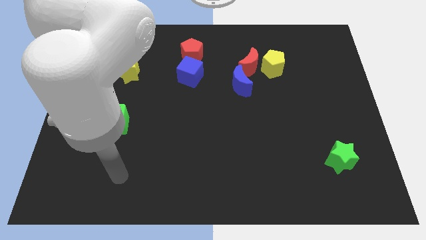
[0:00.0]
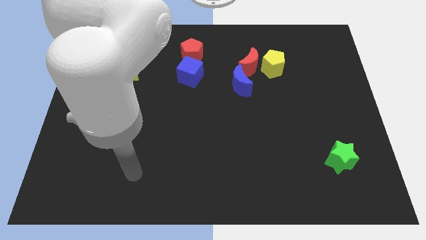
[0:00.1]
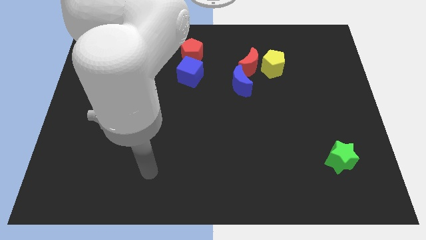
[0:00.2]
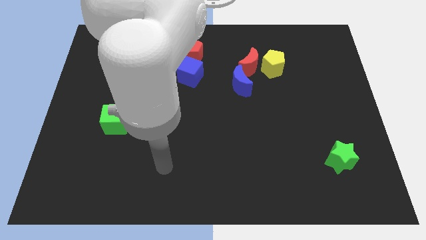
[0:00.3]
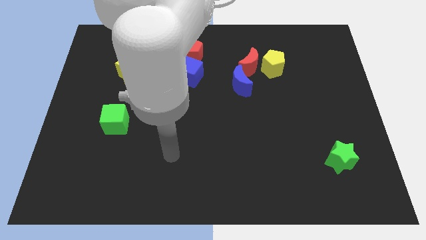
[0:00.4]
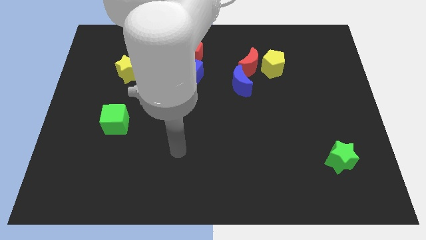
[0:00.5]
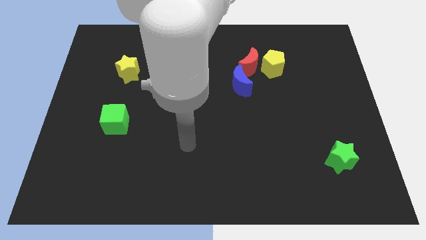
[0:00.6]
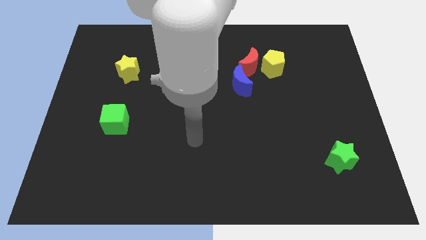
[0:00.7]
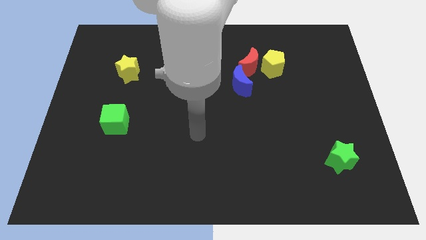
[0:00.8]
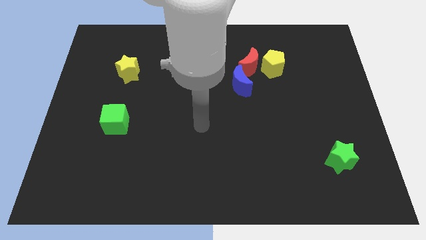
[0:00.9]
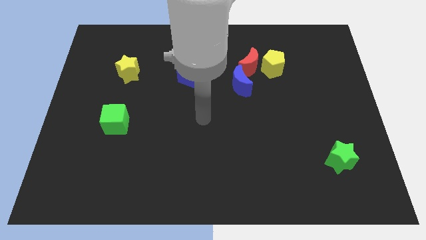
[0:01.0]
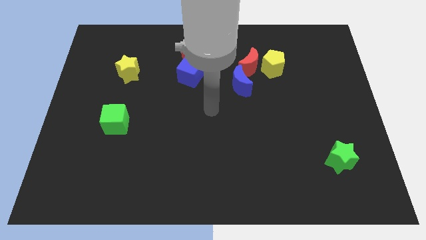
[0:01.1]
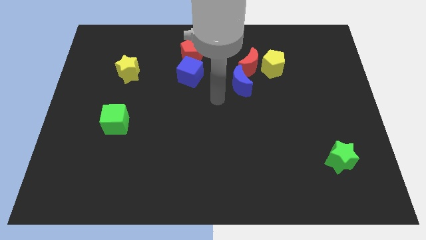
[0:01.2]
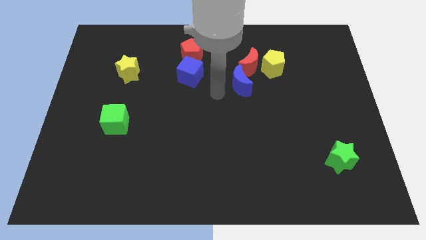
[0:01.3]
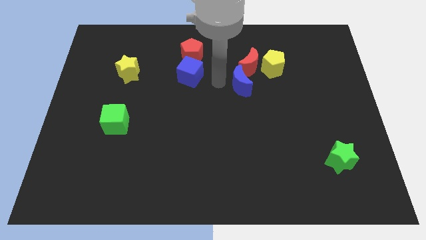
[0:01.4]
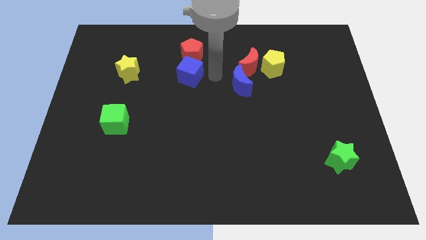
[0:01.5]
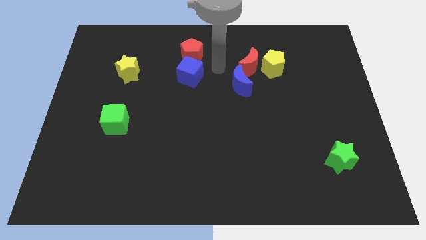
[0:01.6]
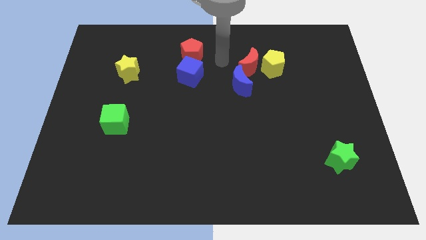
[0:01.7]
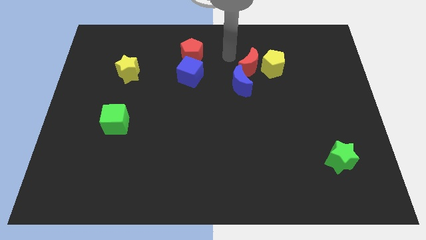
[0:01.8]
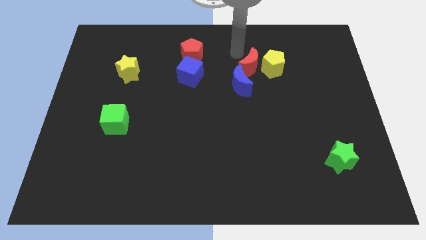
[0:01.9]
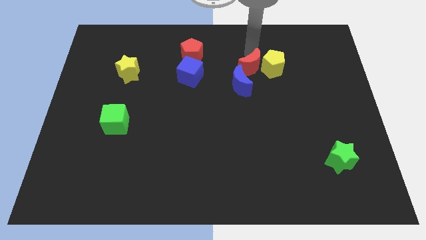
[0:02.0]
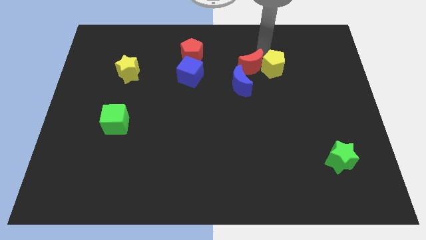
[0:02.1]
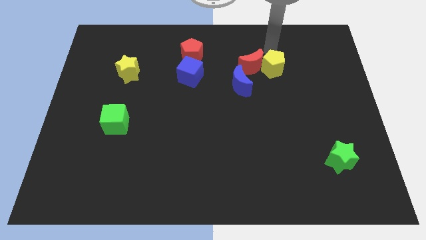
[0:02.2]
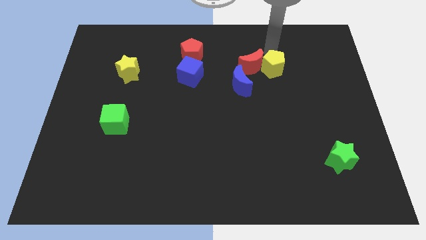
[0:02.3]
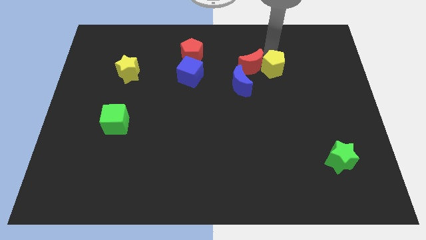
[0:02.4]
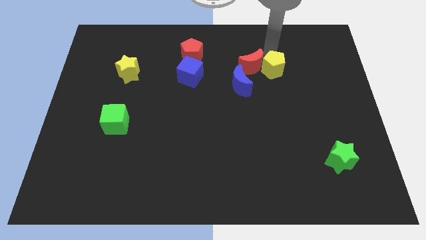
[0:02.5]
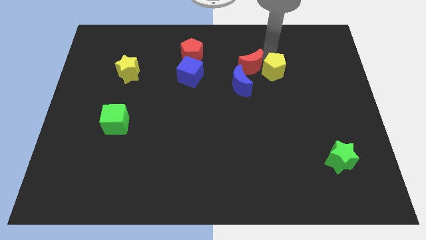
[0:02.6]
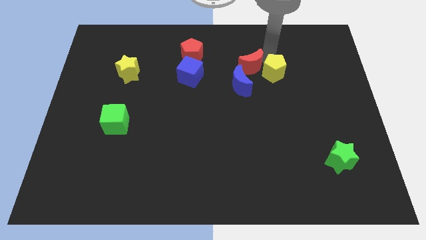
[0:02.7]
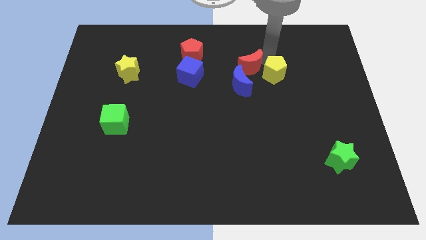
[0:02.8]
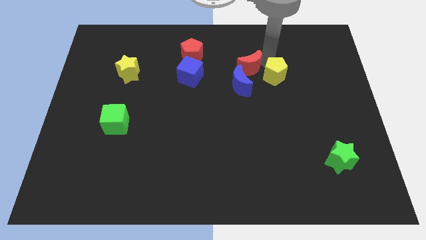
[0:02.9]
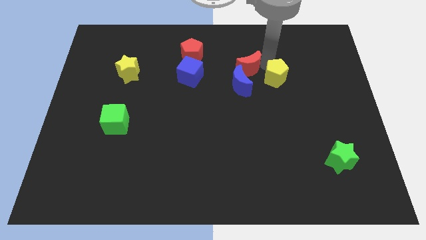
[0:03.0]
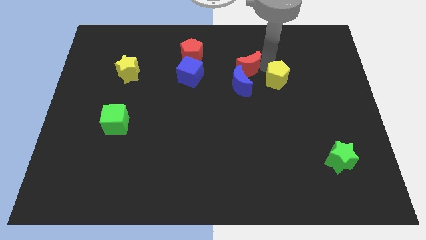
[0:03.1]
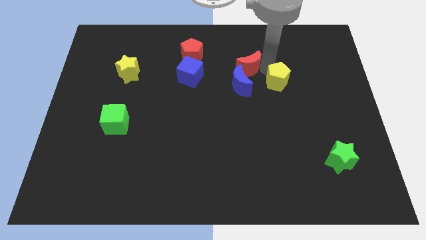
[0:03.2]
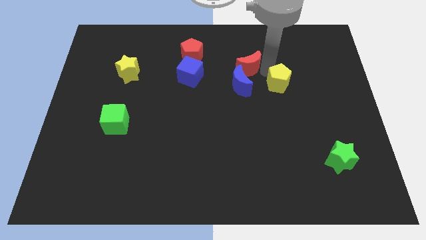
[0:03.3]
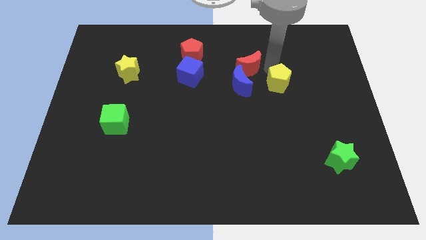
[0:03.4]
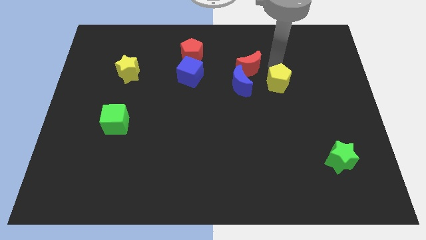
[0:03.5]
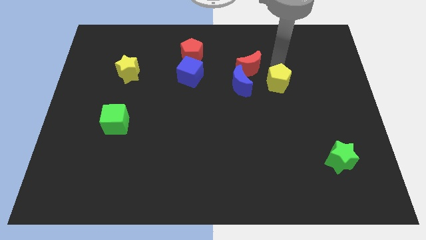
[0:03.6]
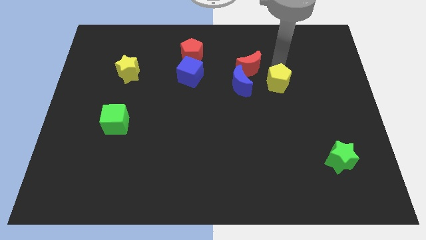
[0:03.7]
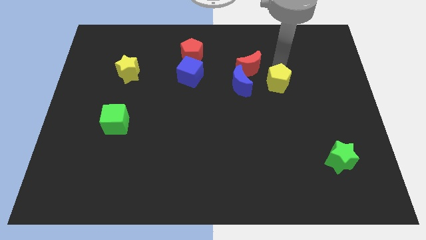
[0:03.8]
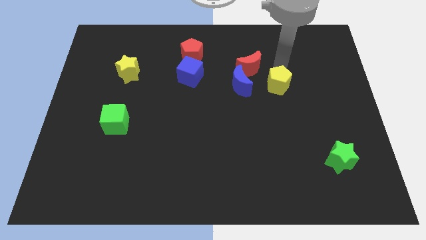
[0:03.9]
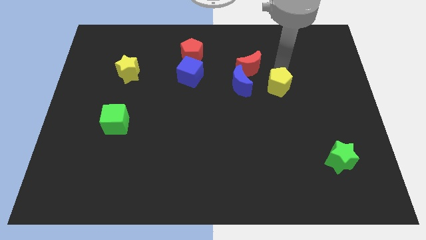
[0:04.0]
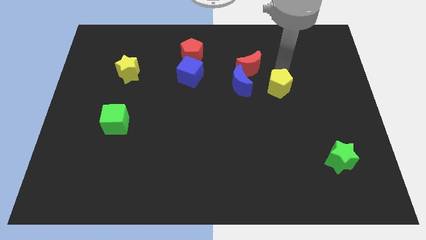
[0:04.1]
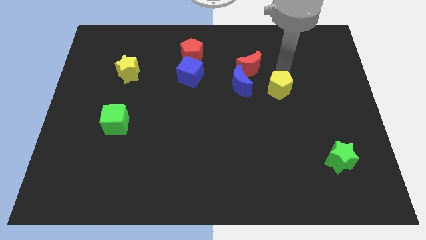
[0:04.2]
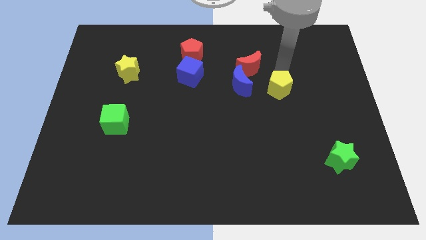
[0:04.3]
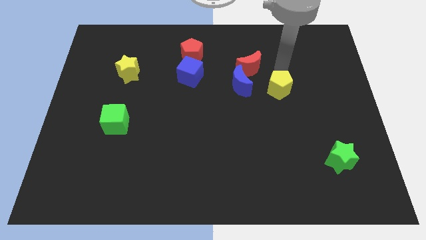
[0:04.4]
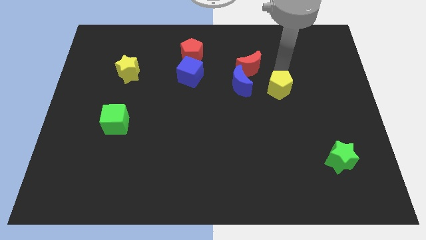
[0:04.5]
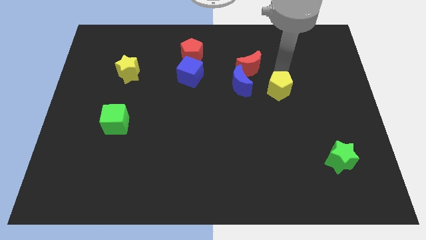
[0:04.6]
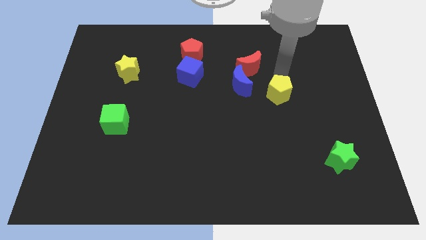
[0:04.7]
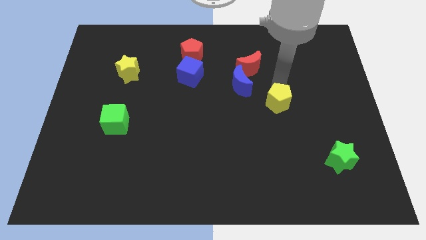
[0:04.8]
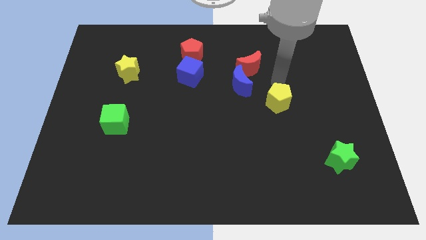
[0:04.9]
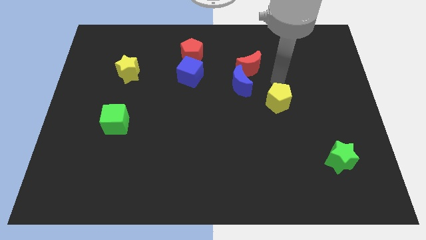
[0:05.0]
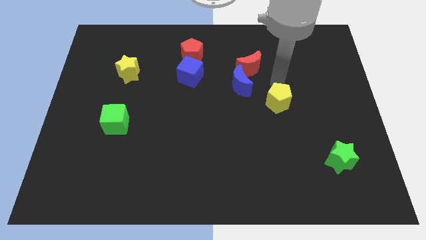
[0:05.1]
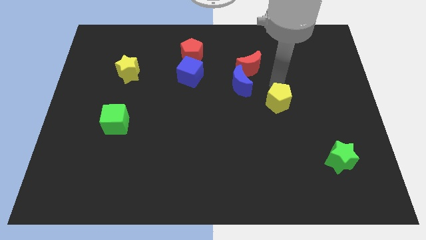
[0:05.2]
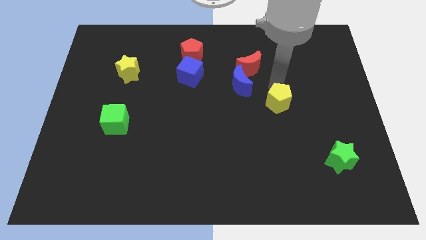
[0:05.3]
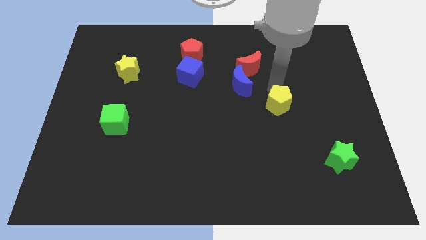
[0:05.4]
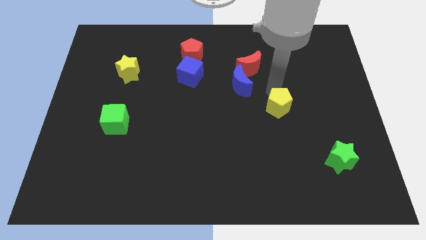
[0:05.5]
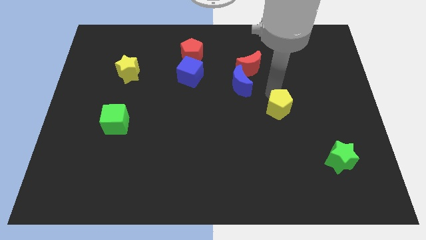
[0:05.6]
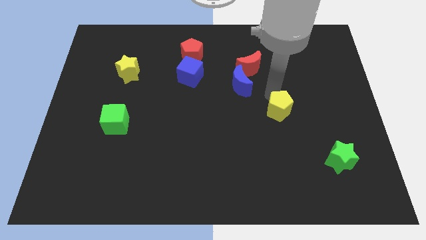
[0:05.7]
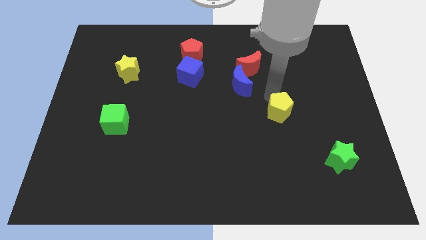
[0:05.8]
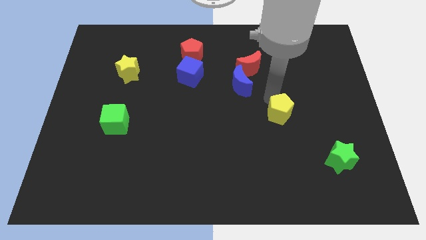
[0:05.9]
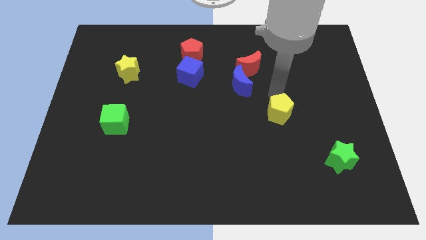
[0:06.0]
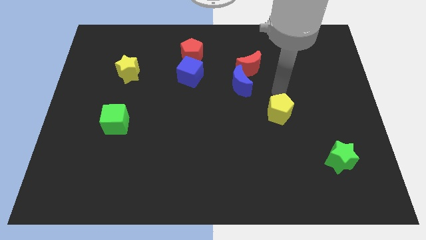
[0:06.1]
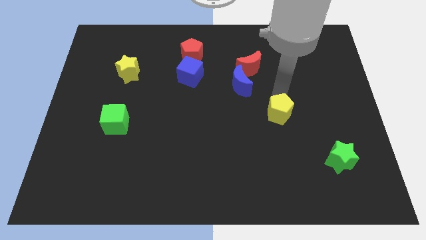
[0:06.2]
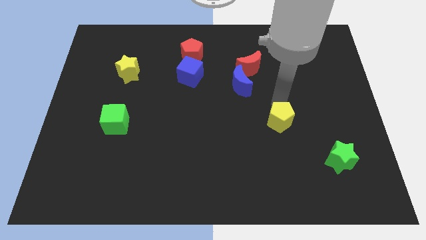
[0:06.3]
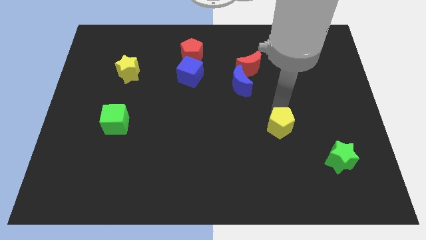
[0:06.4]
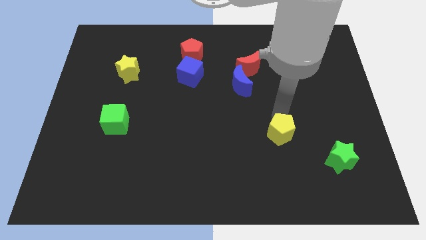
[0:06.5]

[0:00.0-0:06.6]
push the yellow pentagon down

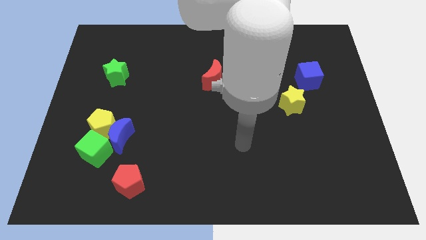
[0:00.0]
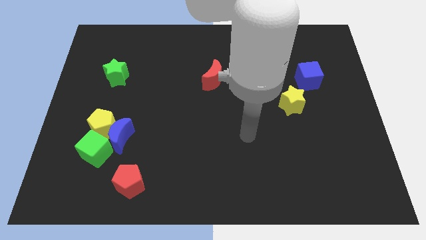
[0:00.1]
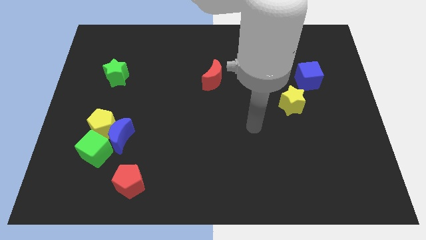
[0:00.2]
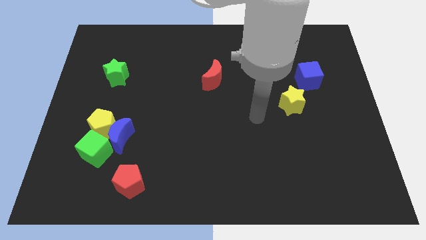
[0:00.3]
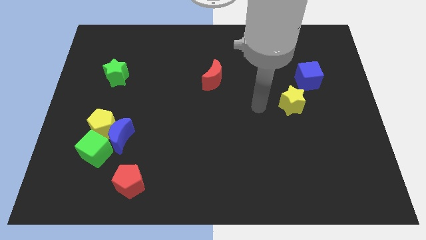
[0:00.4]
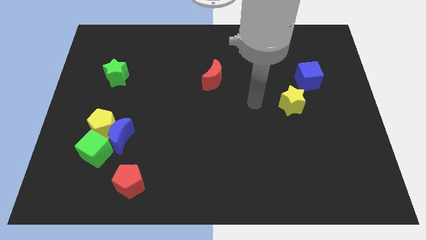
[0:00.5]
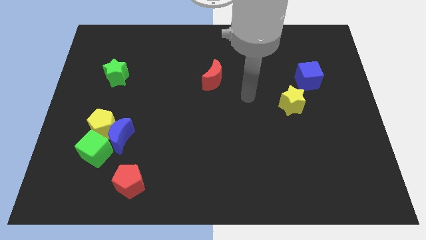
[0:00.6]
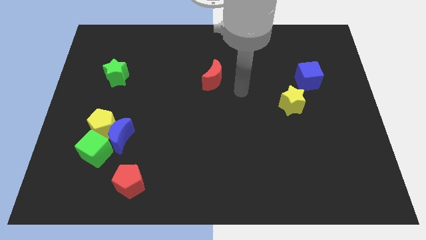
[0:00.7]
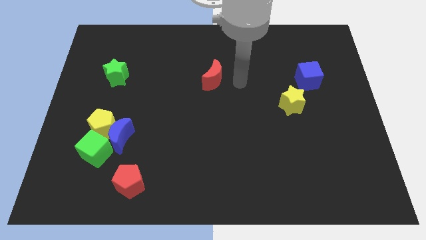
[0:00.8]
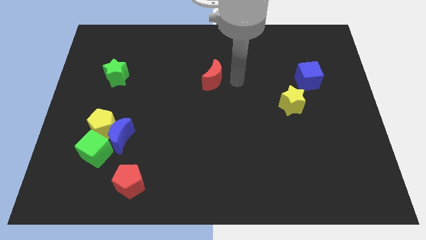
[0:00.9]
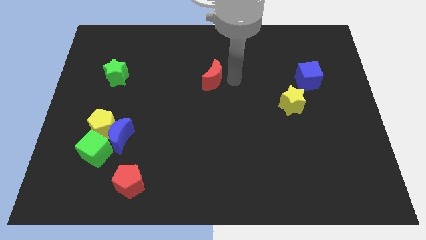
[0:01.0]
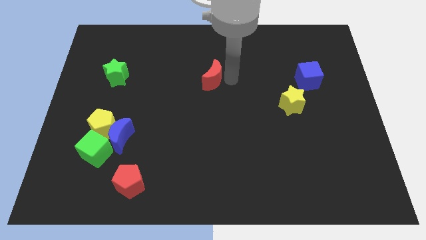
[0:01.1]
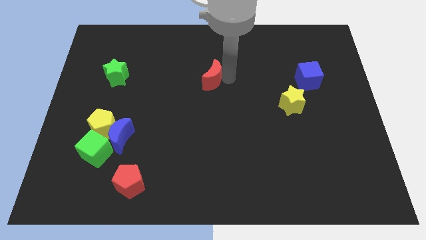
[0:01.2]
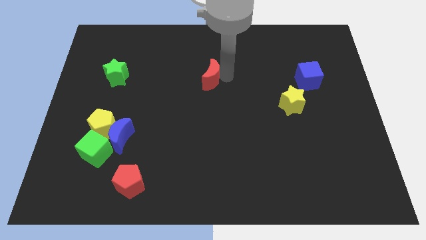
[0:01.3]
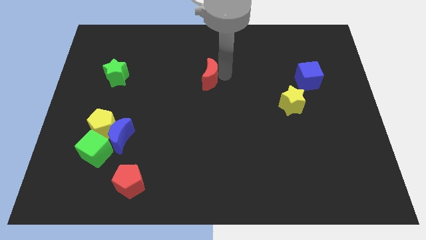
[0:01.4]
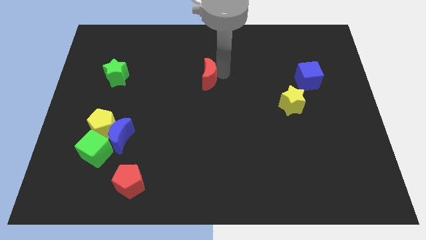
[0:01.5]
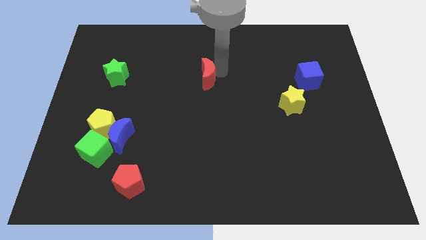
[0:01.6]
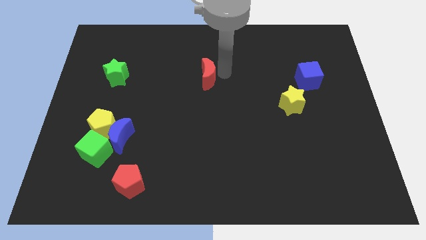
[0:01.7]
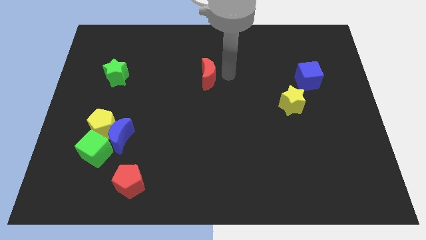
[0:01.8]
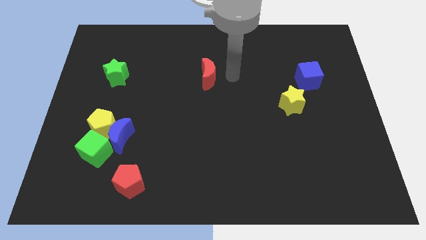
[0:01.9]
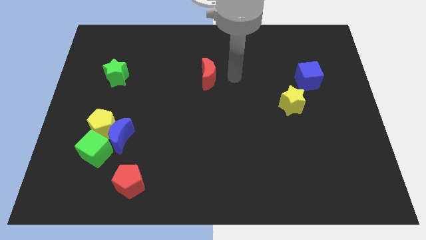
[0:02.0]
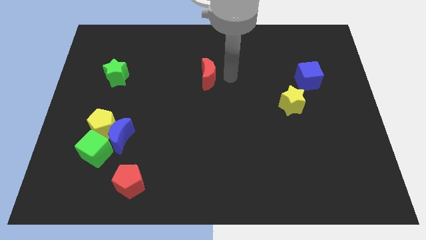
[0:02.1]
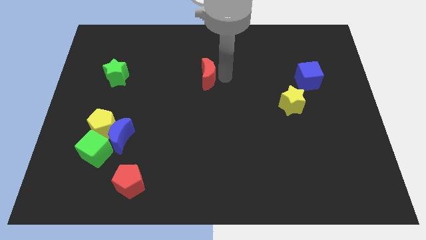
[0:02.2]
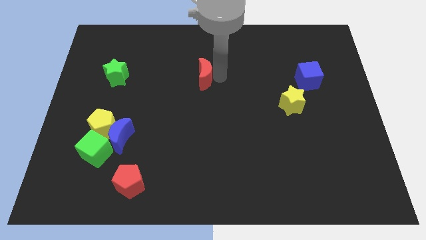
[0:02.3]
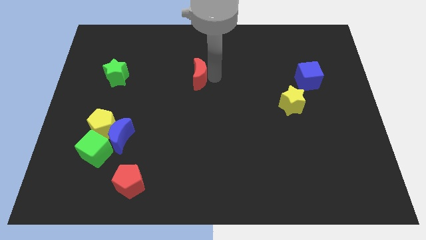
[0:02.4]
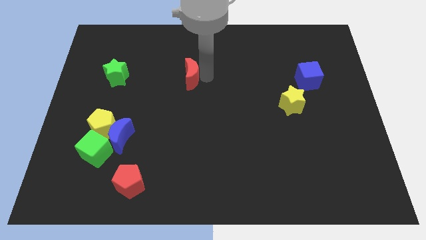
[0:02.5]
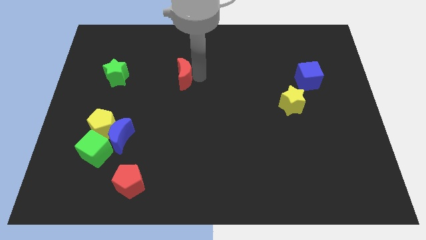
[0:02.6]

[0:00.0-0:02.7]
slide the red moon somewhat to the left
